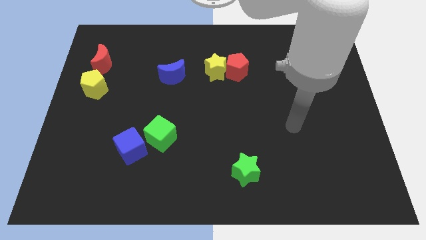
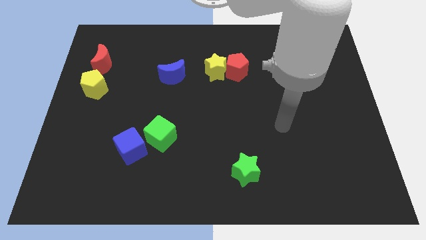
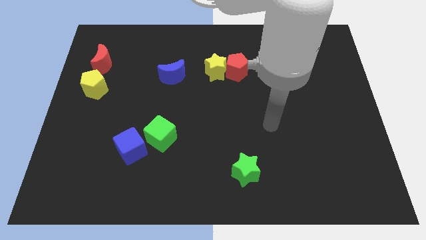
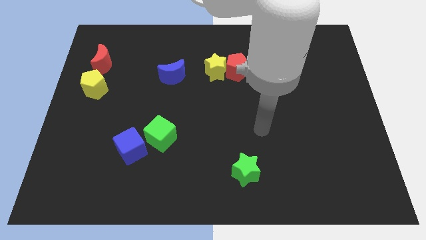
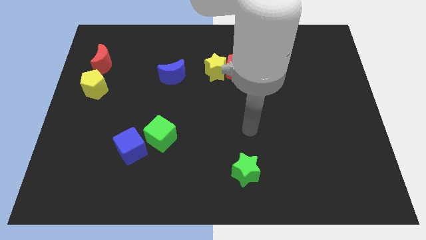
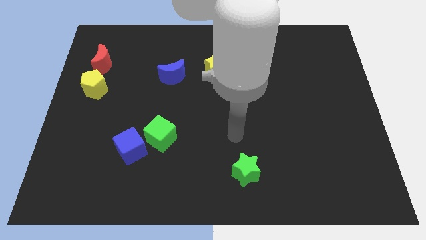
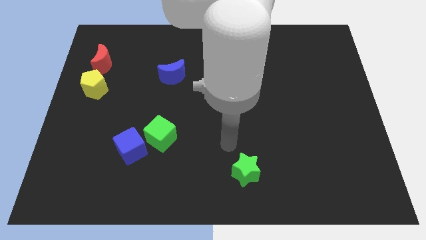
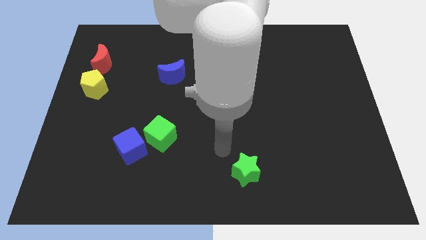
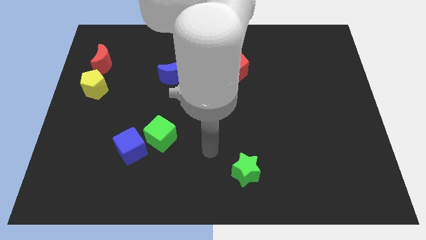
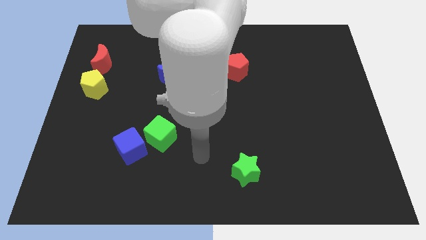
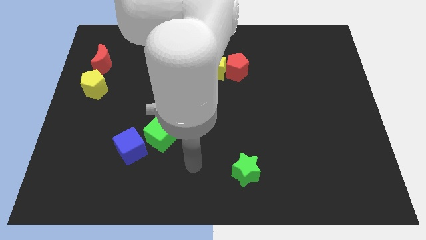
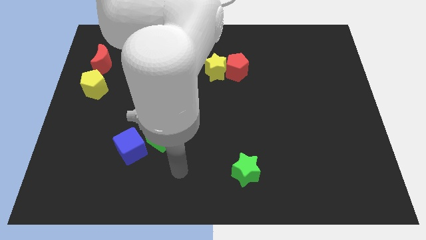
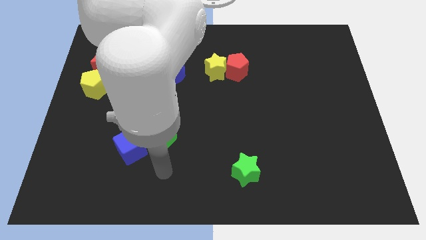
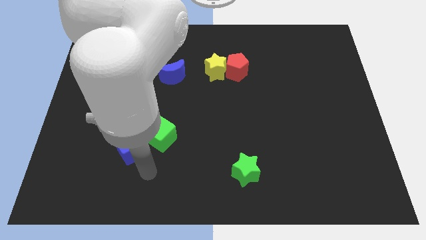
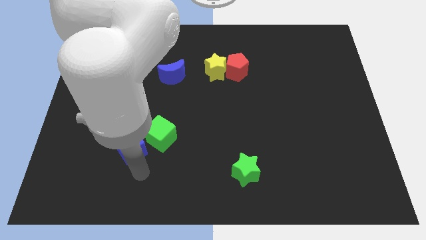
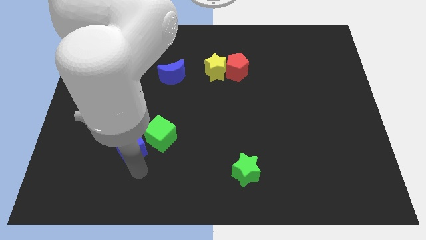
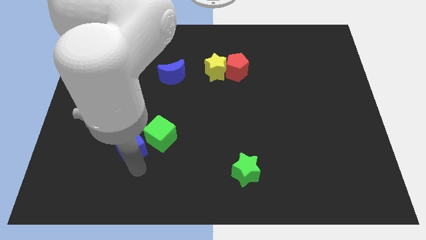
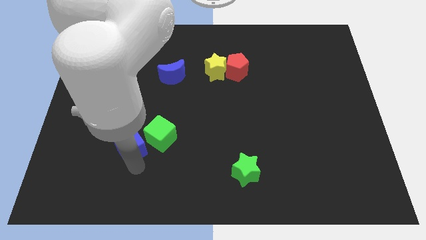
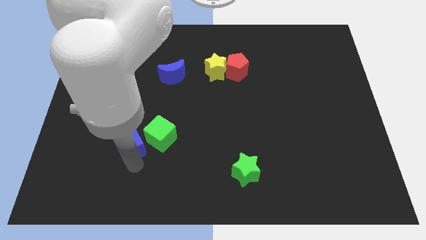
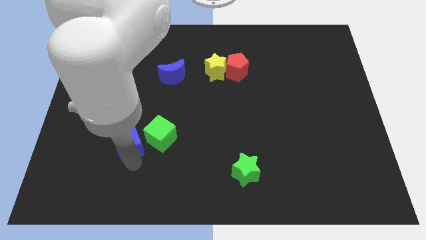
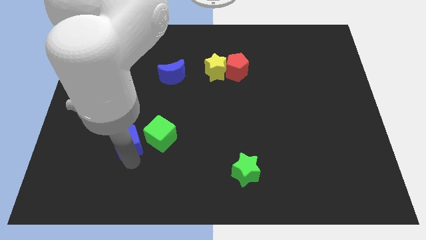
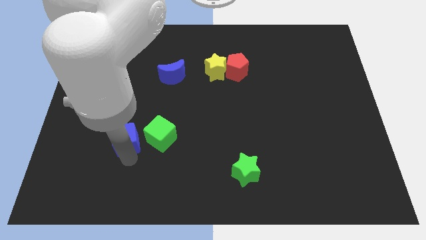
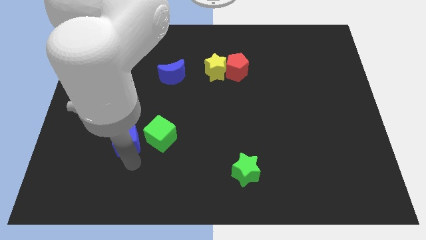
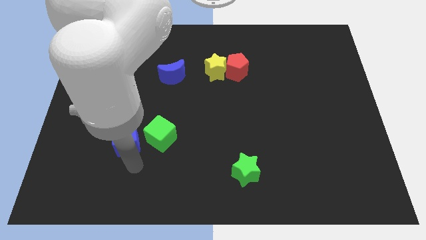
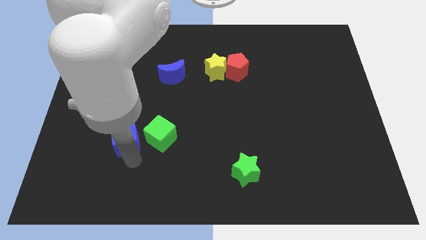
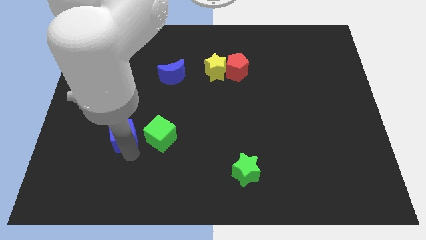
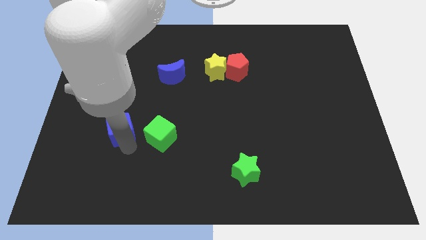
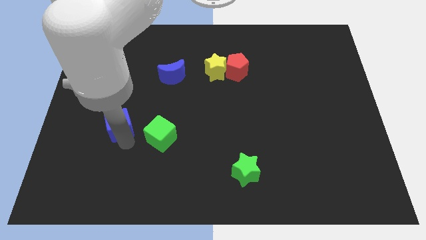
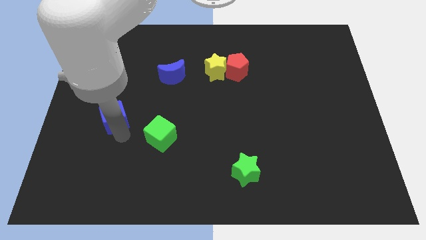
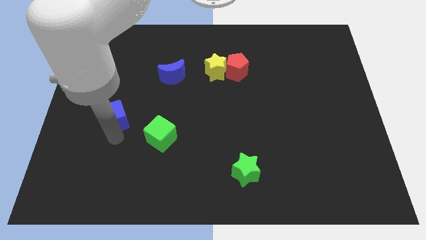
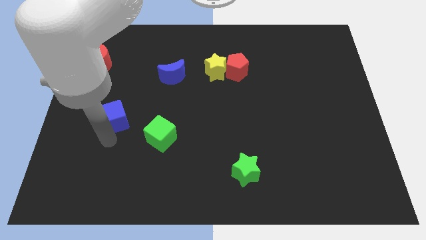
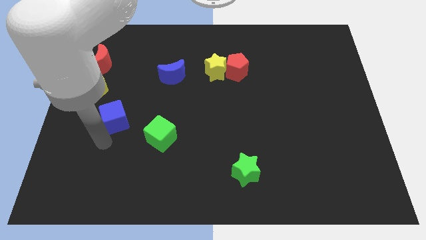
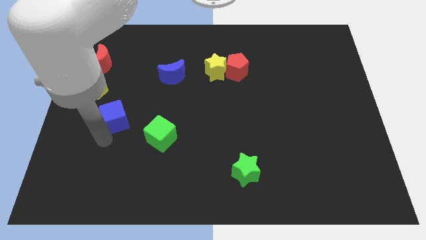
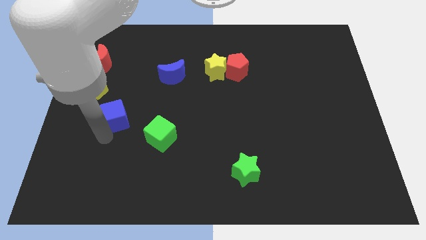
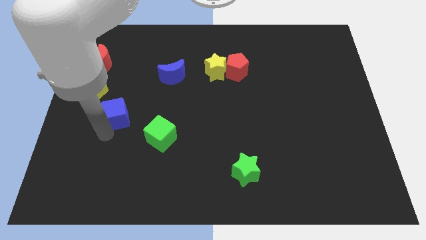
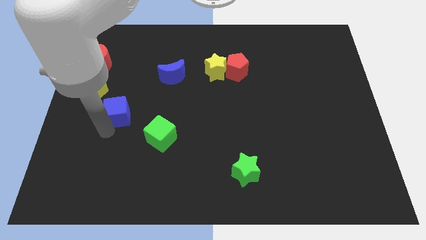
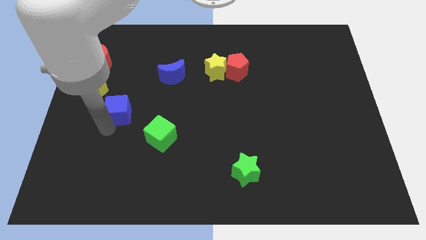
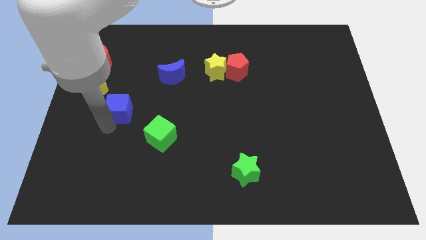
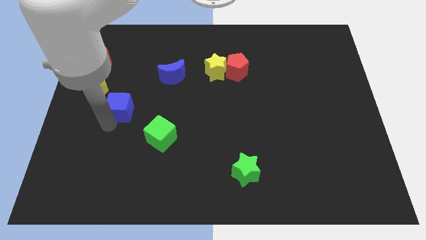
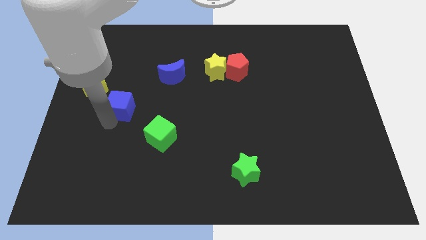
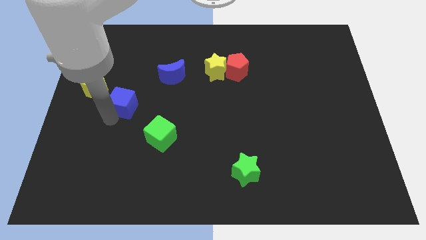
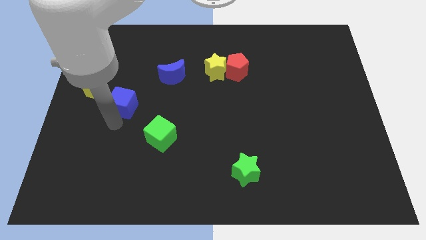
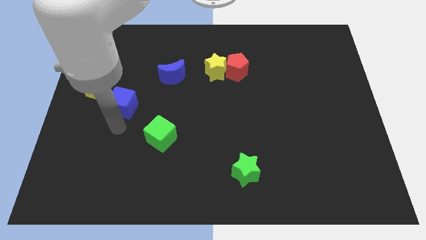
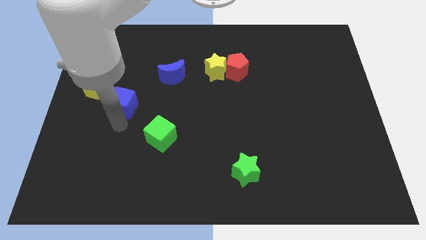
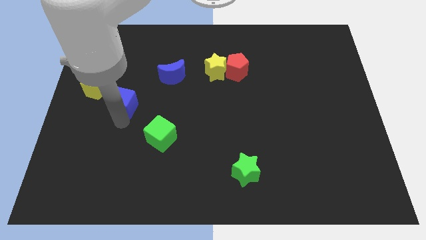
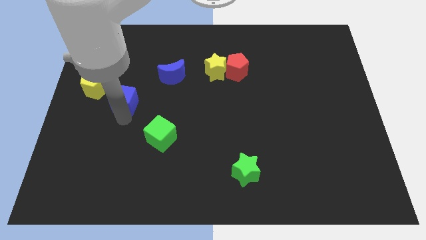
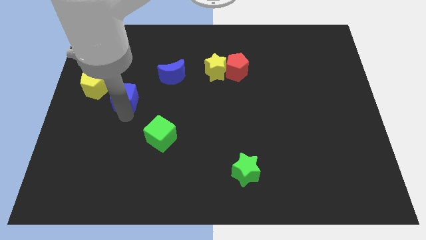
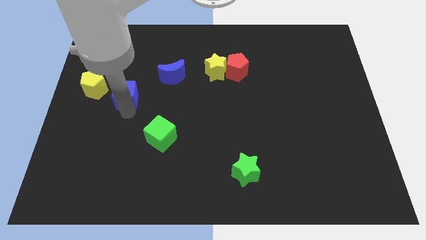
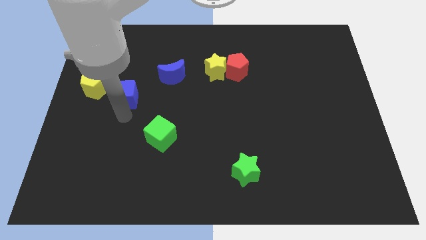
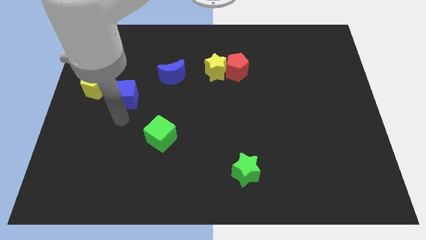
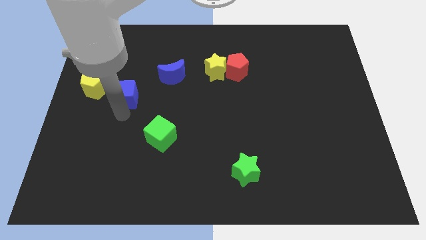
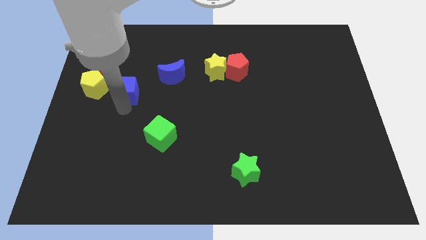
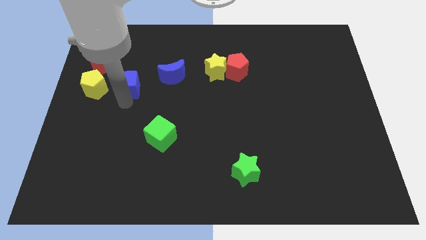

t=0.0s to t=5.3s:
slide the blue cube left of the blue moon

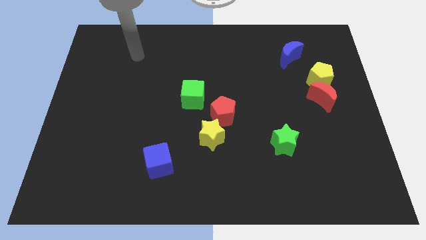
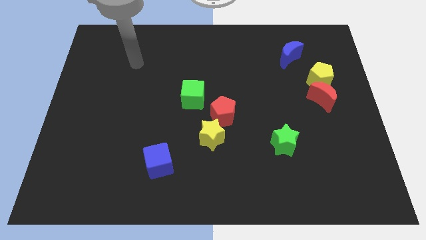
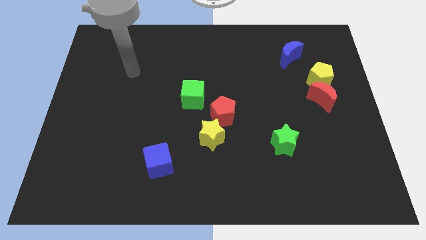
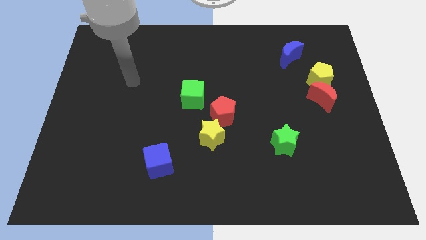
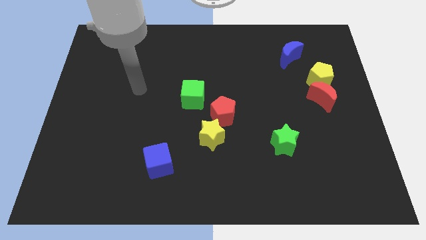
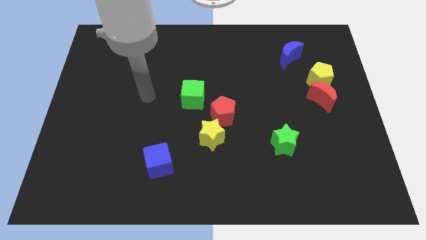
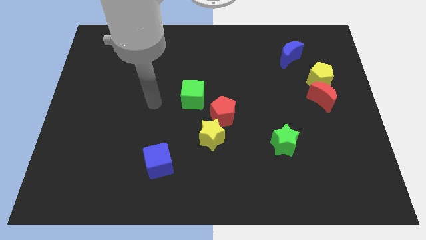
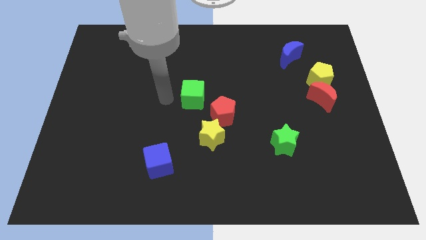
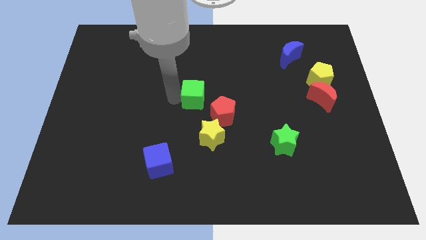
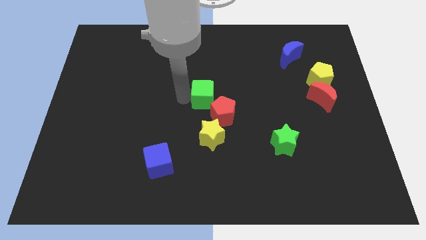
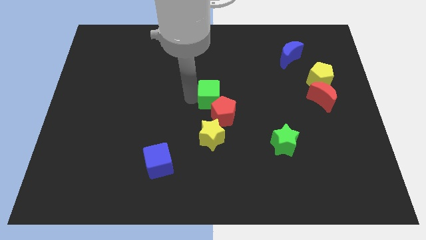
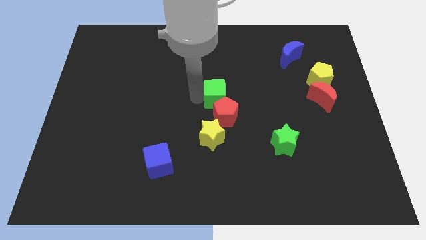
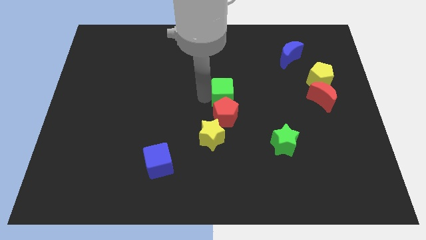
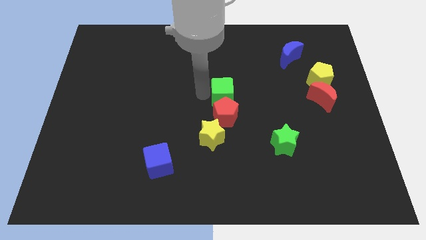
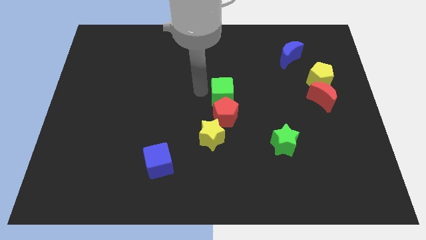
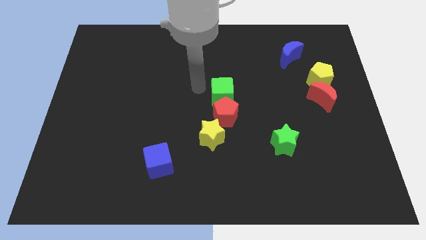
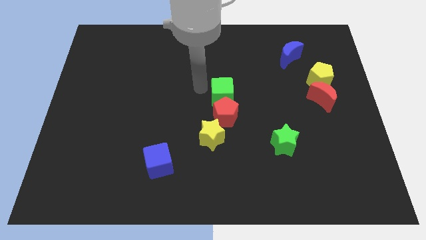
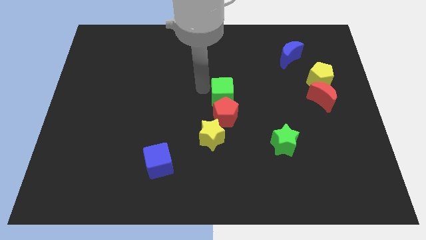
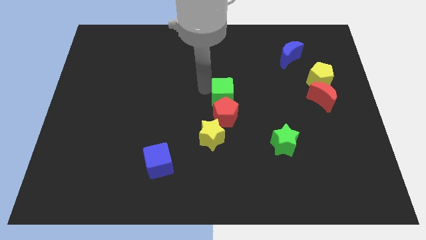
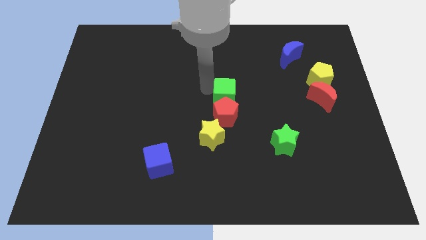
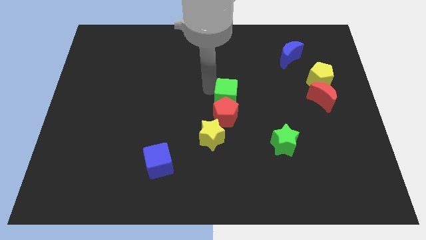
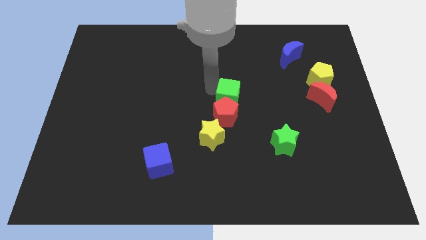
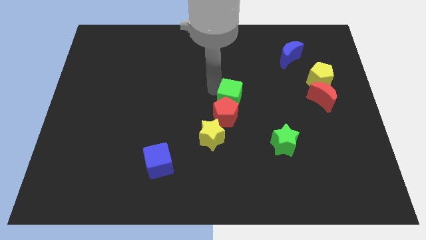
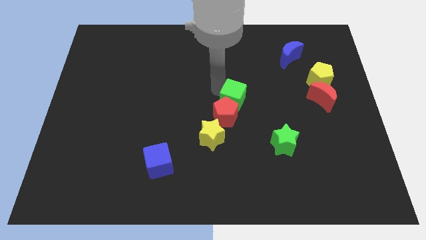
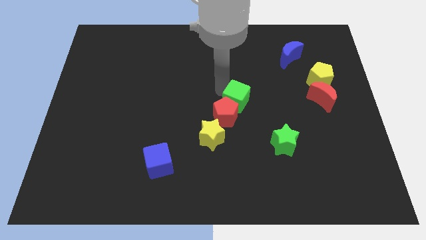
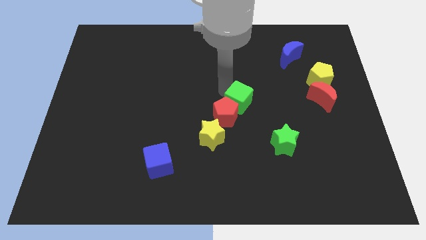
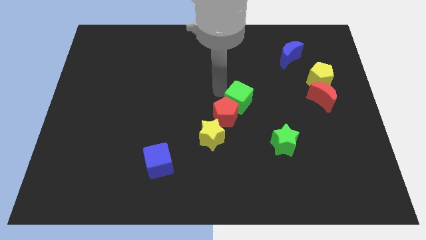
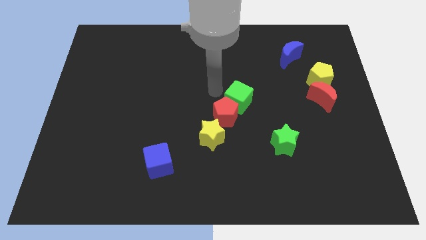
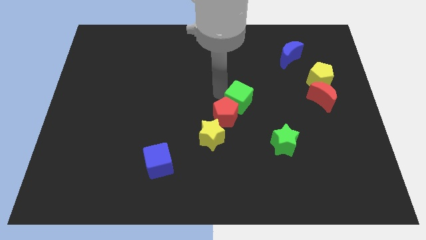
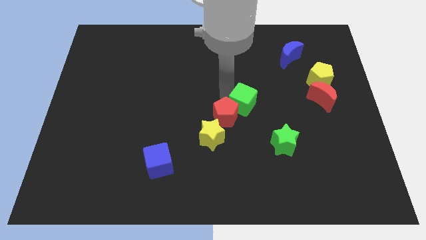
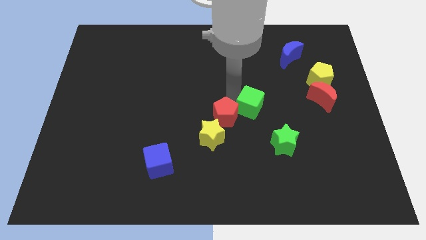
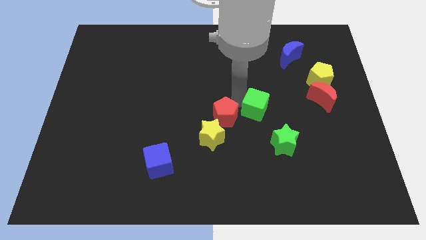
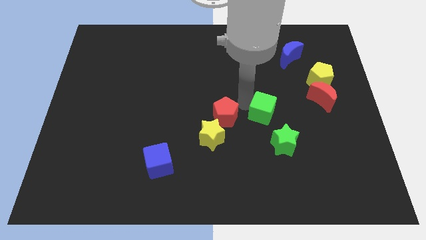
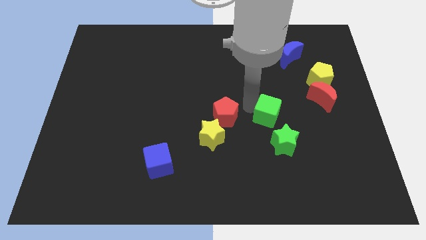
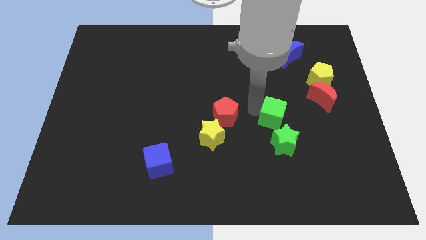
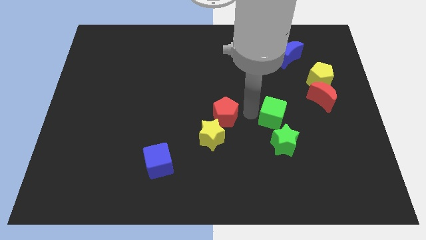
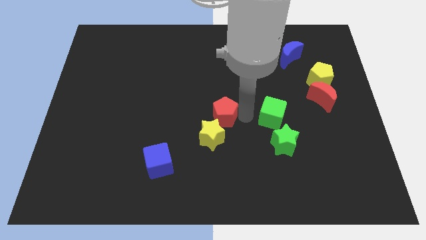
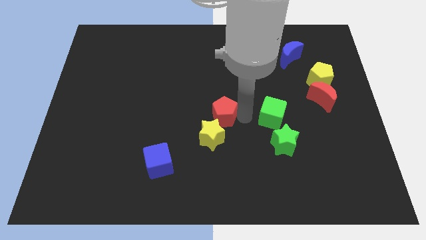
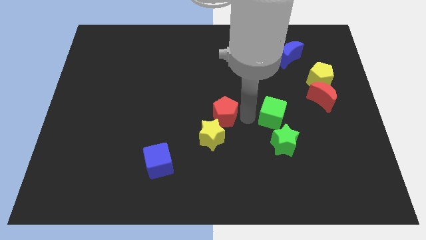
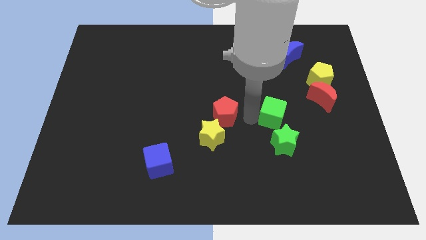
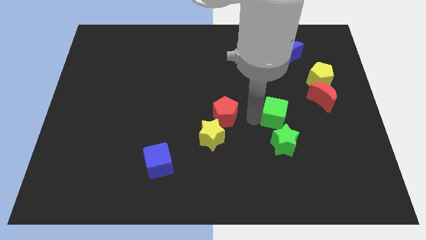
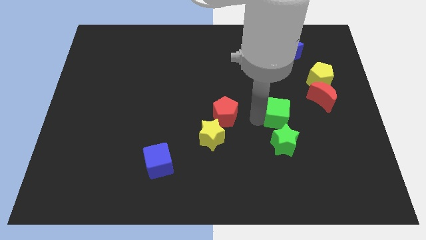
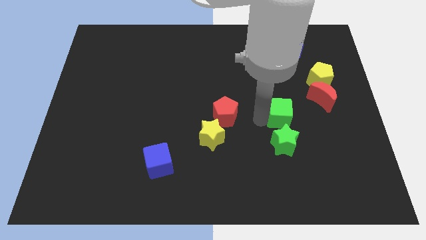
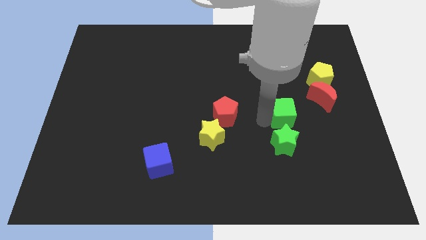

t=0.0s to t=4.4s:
slide the green cube diagonally down and to the left of the red moon
